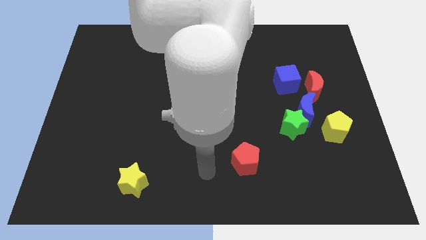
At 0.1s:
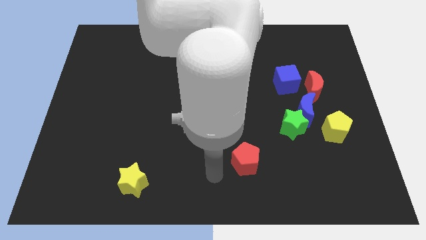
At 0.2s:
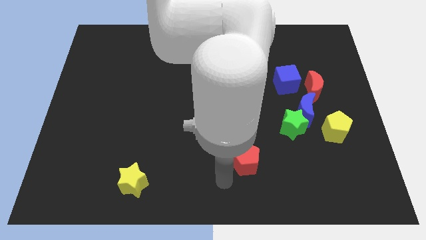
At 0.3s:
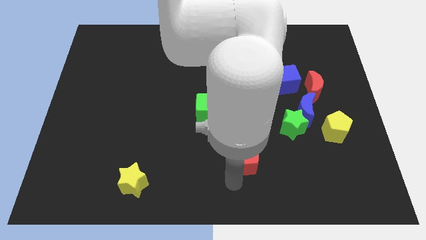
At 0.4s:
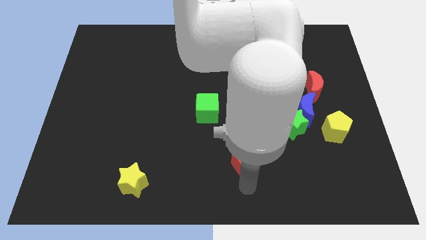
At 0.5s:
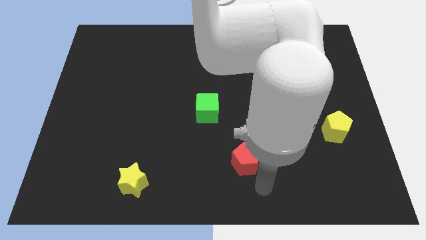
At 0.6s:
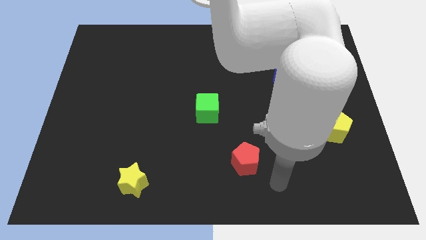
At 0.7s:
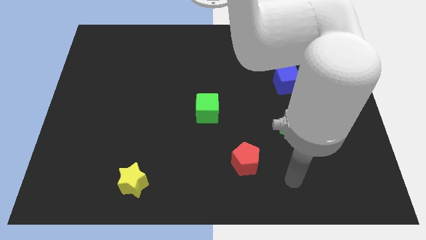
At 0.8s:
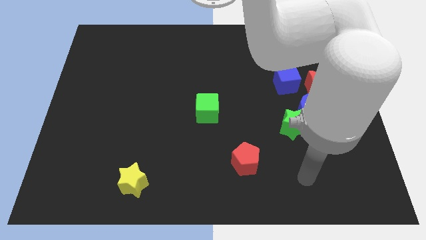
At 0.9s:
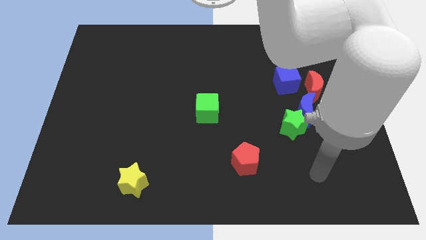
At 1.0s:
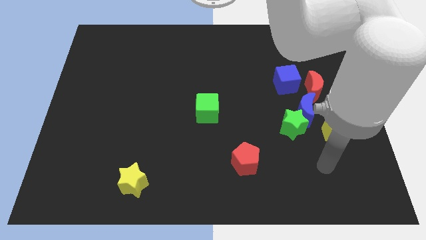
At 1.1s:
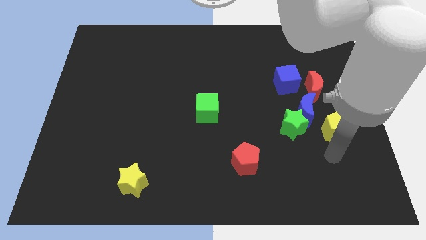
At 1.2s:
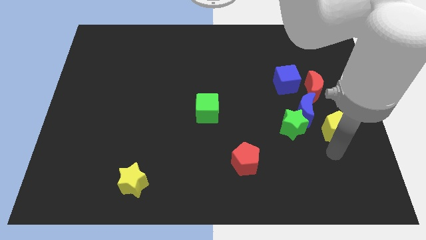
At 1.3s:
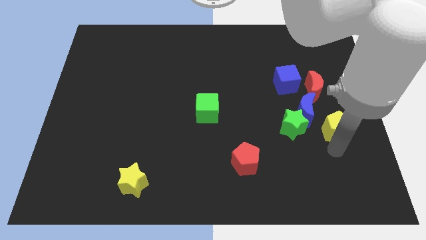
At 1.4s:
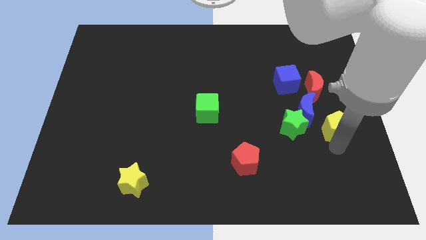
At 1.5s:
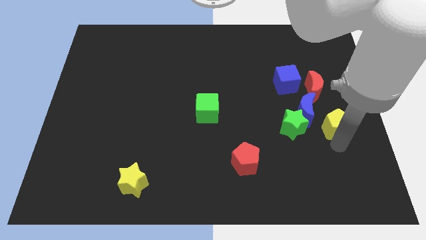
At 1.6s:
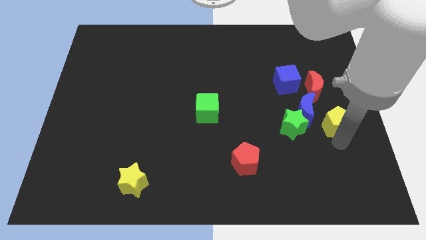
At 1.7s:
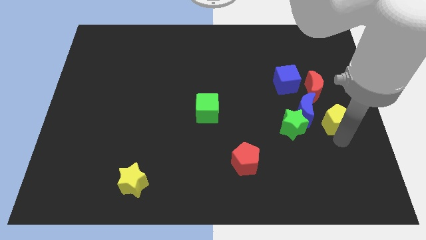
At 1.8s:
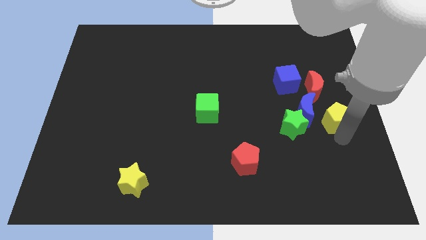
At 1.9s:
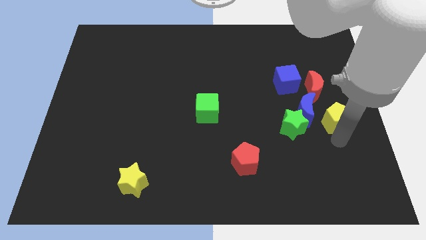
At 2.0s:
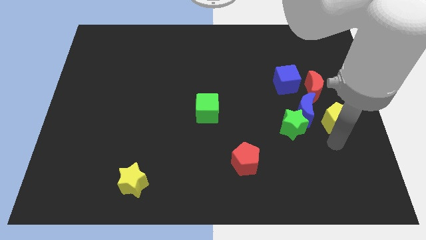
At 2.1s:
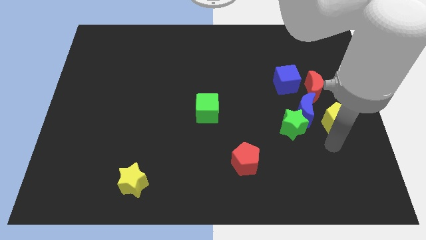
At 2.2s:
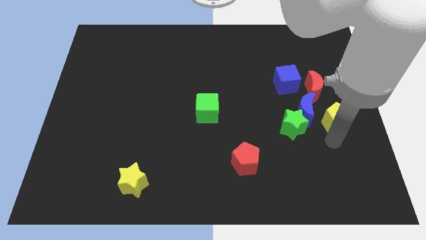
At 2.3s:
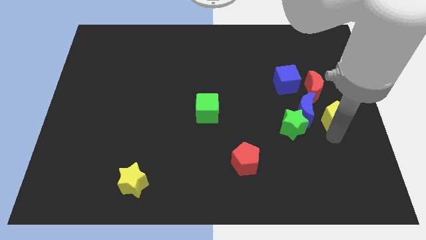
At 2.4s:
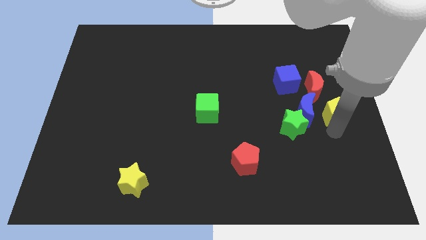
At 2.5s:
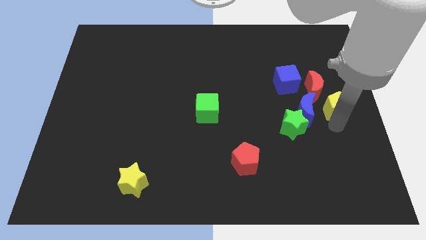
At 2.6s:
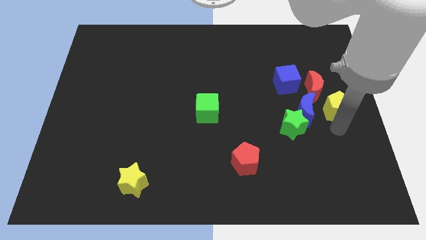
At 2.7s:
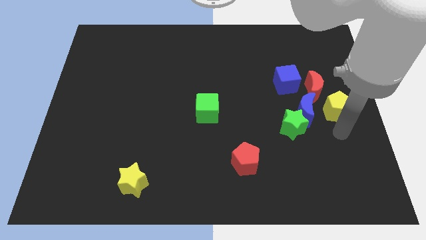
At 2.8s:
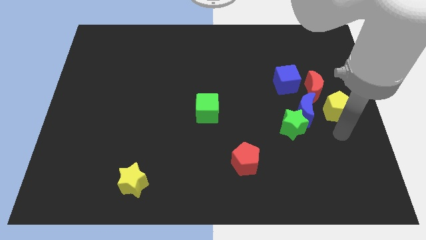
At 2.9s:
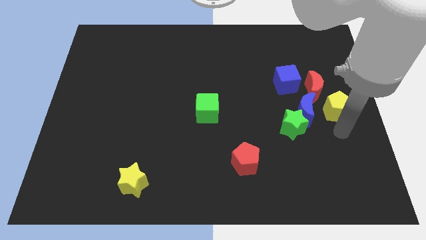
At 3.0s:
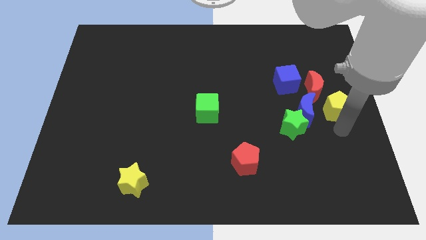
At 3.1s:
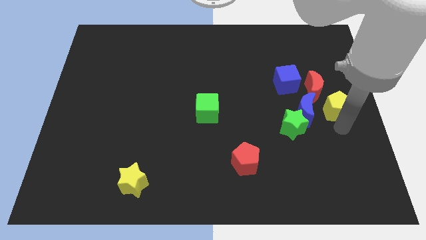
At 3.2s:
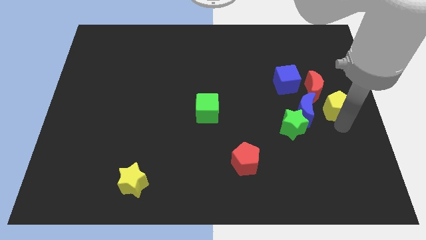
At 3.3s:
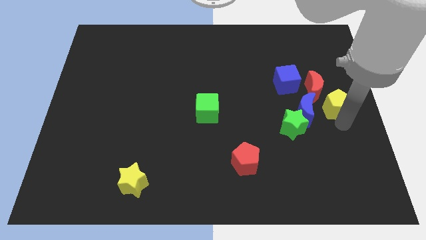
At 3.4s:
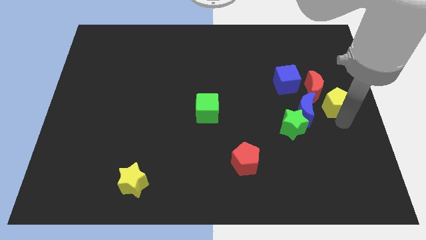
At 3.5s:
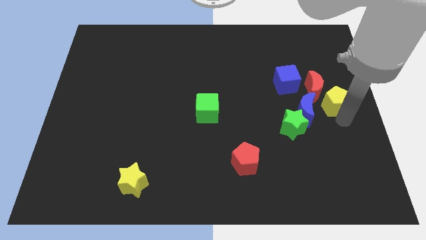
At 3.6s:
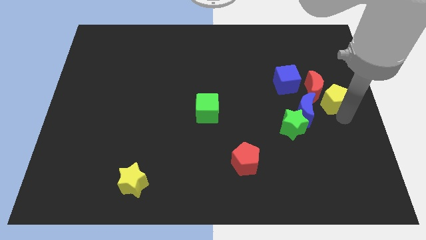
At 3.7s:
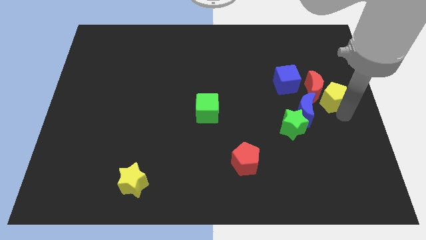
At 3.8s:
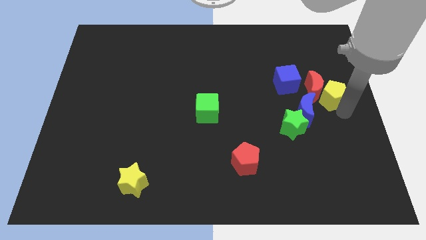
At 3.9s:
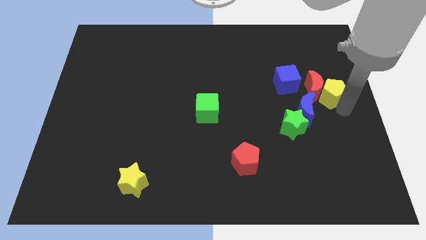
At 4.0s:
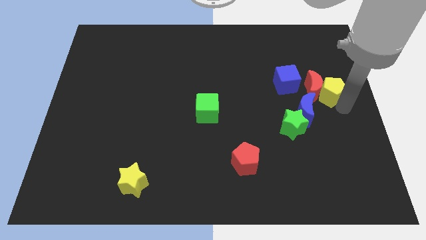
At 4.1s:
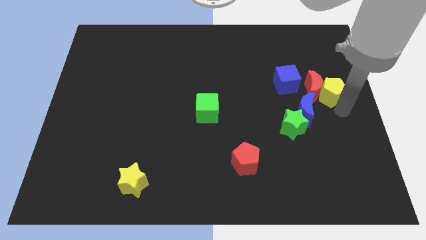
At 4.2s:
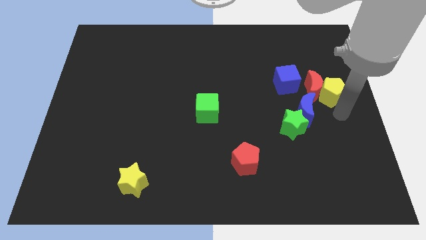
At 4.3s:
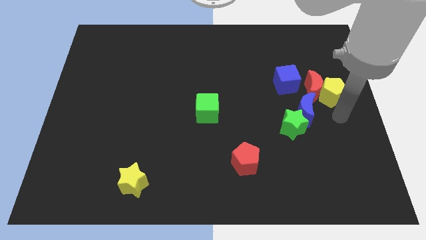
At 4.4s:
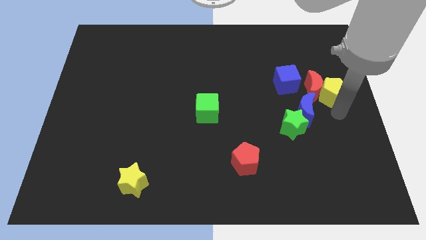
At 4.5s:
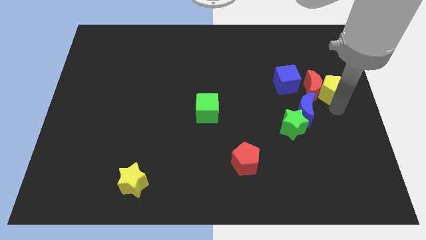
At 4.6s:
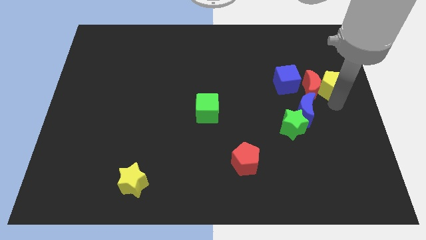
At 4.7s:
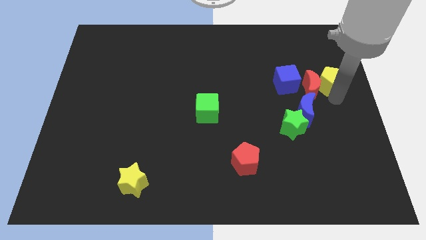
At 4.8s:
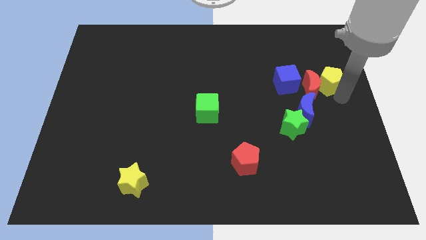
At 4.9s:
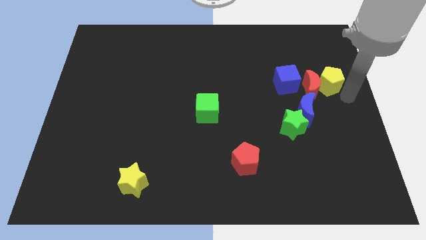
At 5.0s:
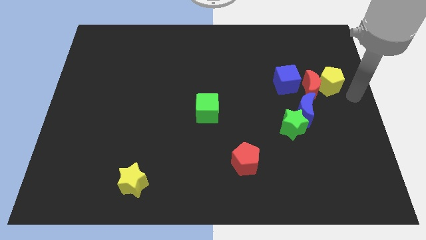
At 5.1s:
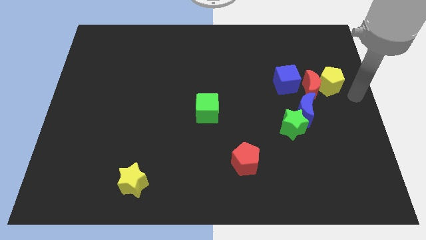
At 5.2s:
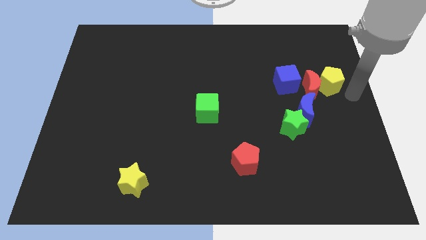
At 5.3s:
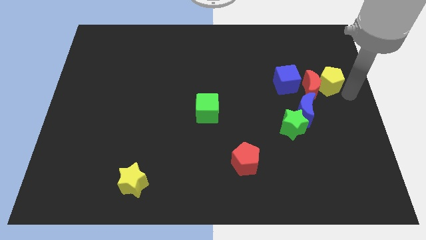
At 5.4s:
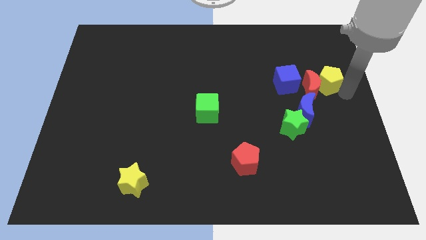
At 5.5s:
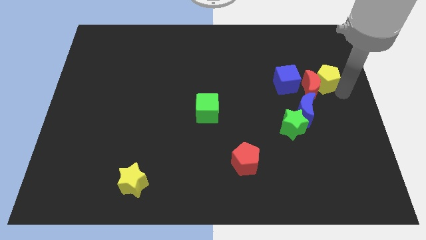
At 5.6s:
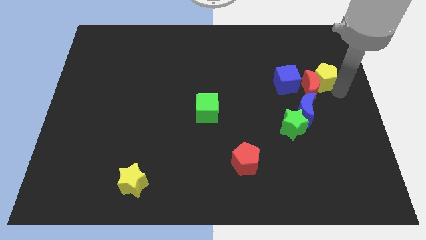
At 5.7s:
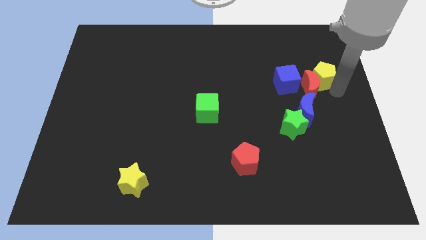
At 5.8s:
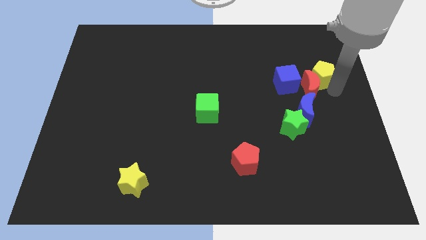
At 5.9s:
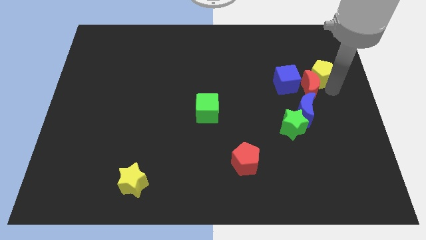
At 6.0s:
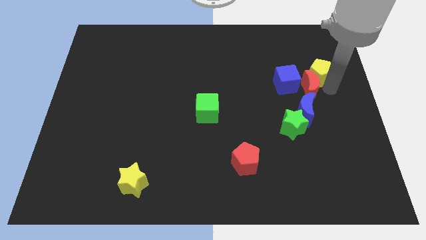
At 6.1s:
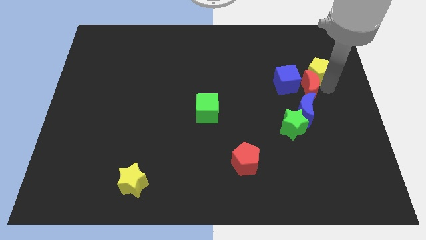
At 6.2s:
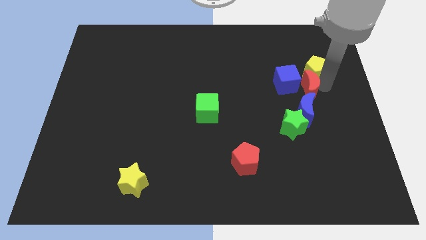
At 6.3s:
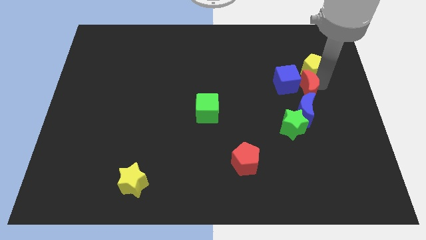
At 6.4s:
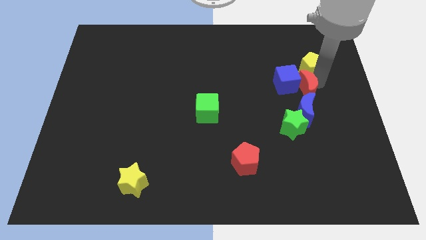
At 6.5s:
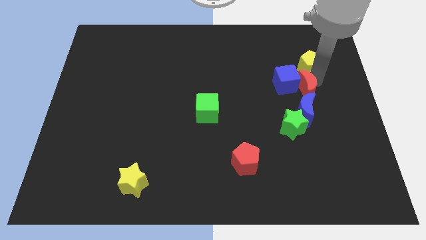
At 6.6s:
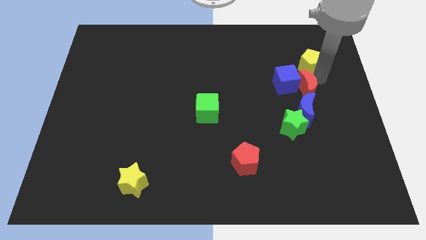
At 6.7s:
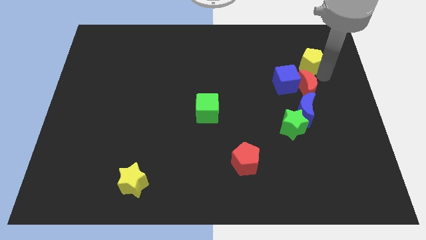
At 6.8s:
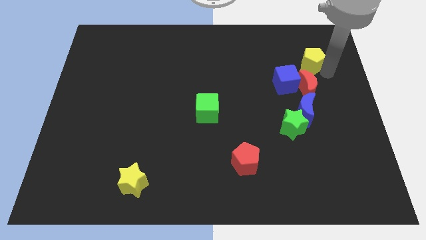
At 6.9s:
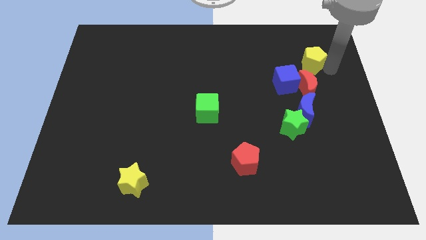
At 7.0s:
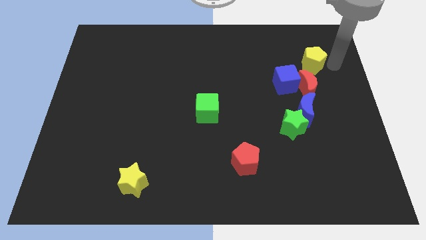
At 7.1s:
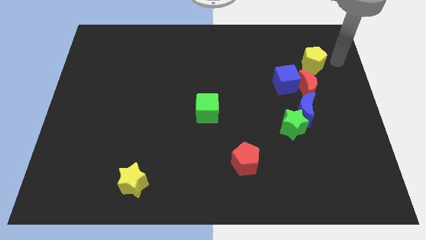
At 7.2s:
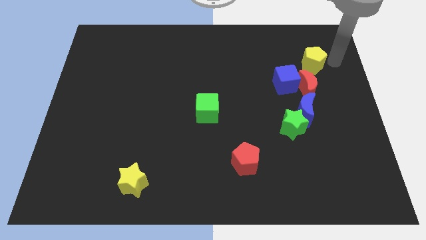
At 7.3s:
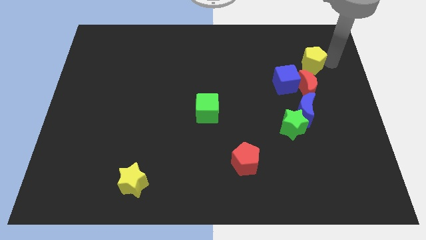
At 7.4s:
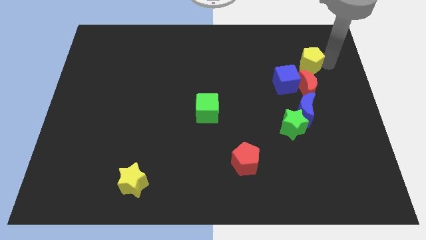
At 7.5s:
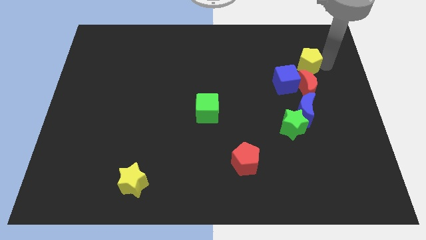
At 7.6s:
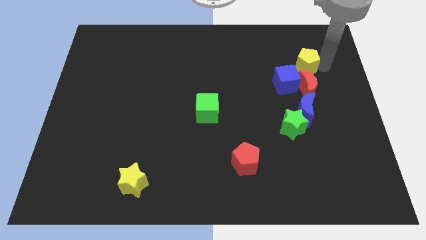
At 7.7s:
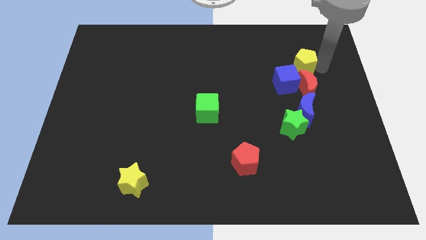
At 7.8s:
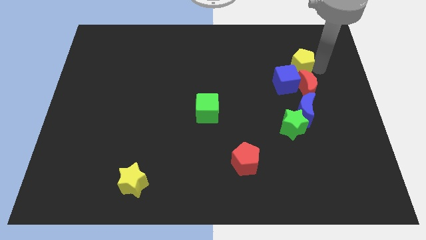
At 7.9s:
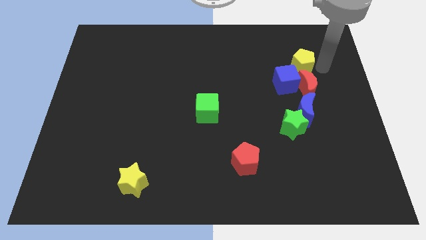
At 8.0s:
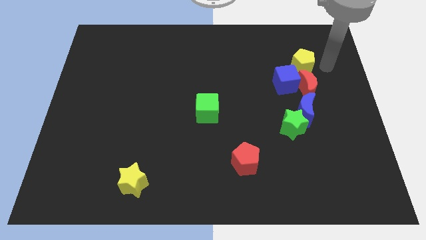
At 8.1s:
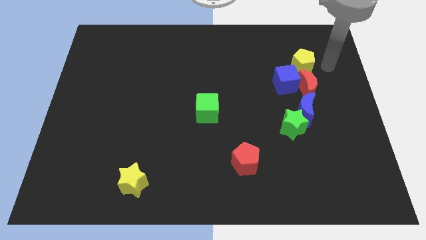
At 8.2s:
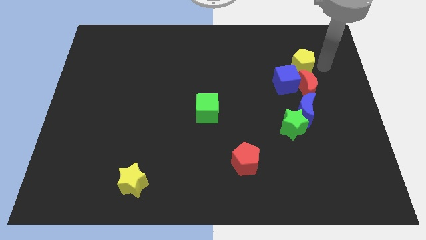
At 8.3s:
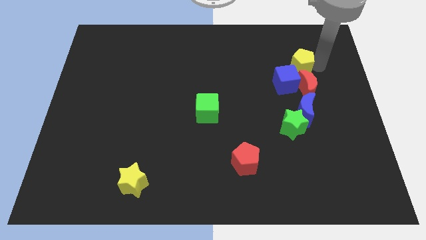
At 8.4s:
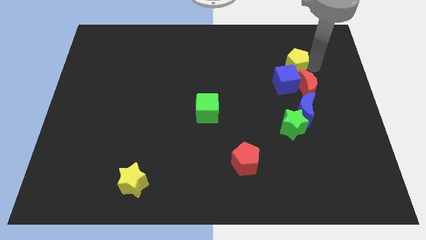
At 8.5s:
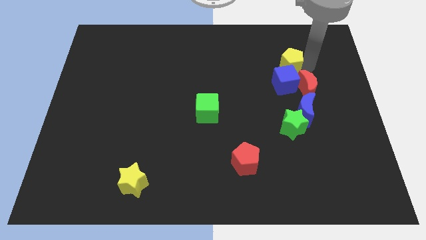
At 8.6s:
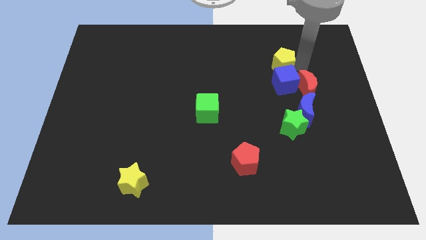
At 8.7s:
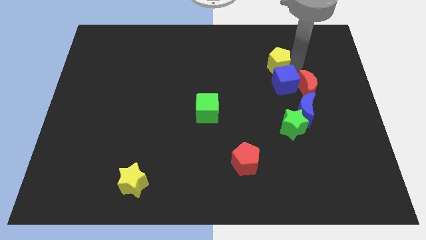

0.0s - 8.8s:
push the yellow pentagon diagonally up and to the left
